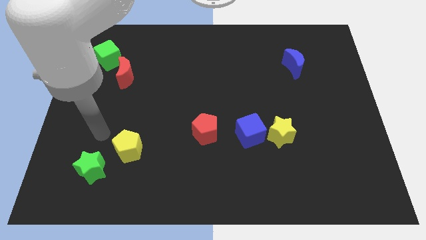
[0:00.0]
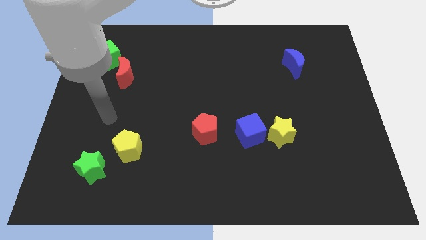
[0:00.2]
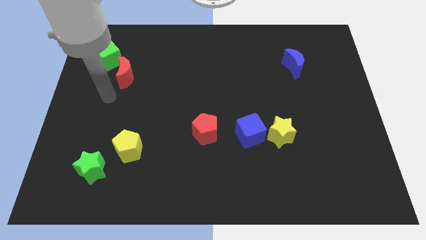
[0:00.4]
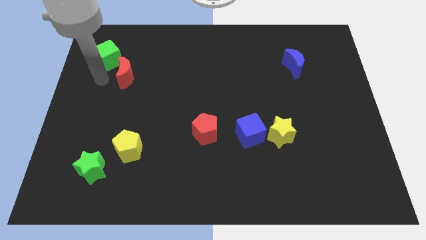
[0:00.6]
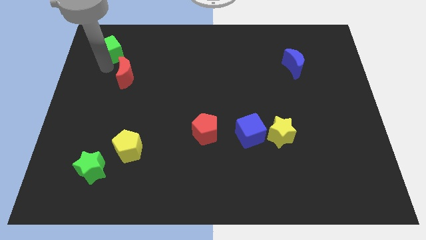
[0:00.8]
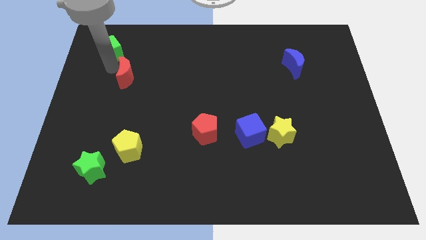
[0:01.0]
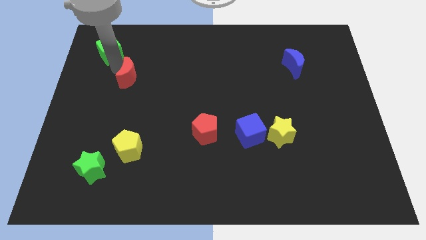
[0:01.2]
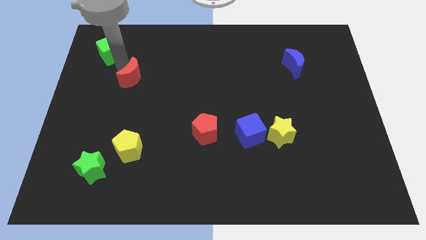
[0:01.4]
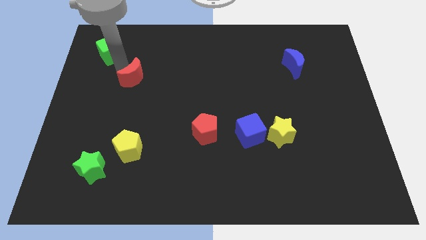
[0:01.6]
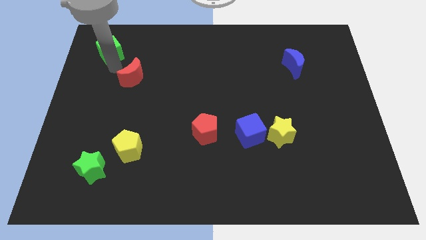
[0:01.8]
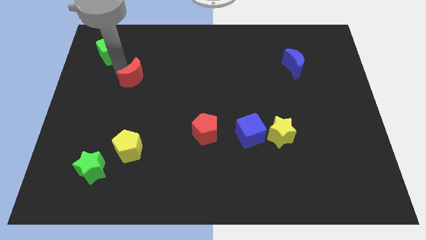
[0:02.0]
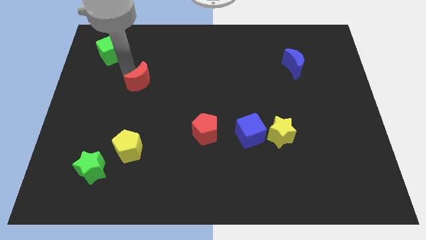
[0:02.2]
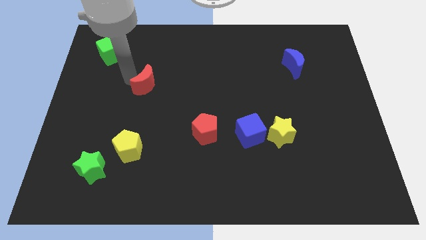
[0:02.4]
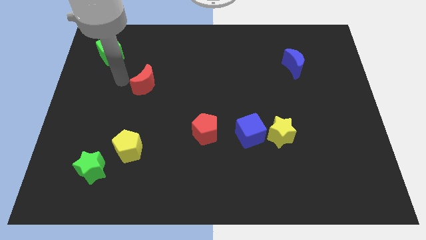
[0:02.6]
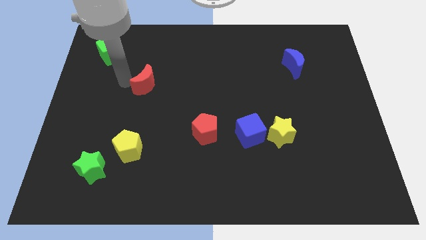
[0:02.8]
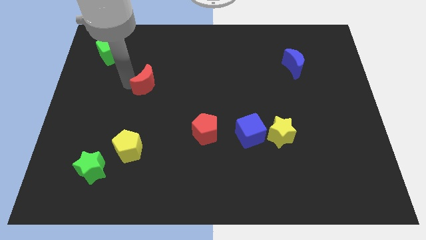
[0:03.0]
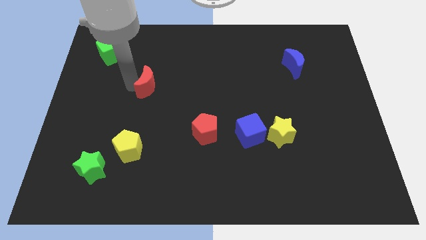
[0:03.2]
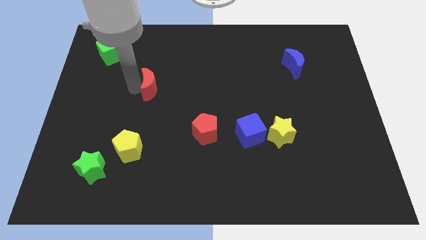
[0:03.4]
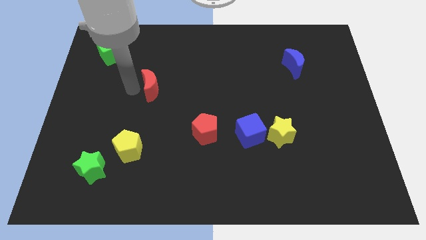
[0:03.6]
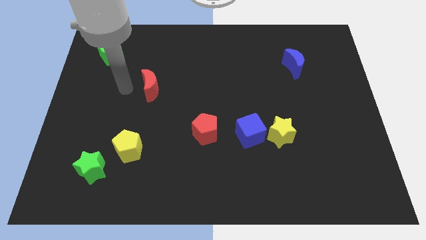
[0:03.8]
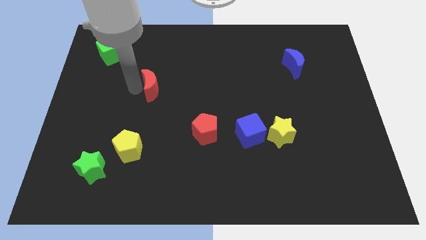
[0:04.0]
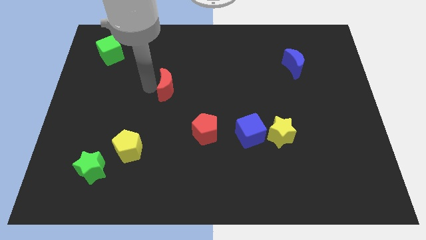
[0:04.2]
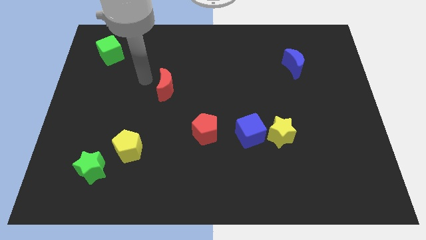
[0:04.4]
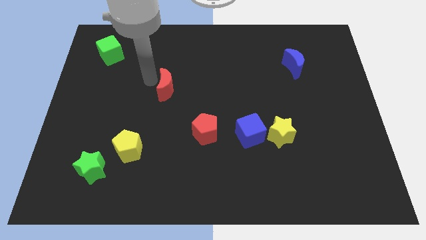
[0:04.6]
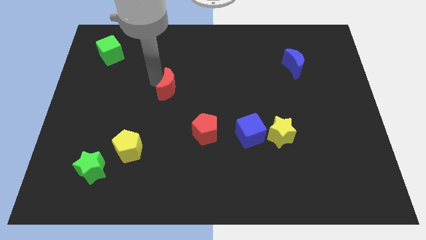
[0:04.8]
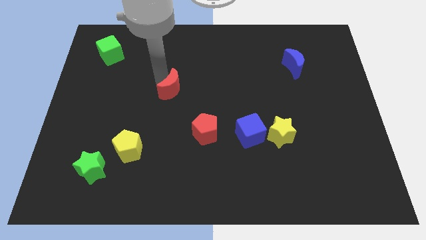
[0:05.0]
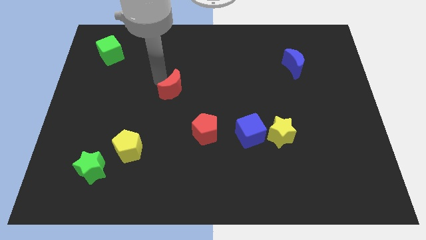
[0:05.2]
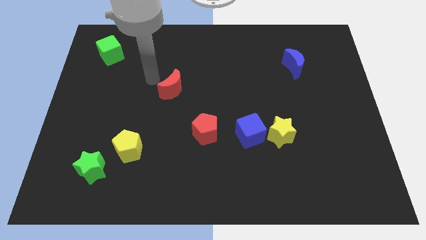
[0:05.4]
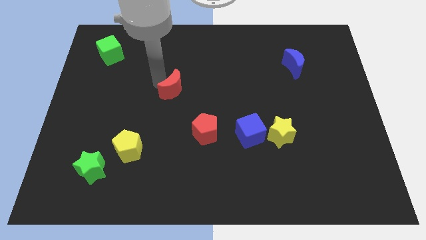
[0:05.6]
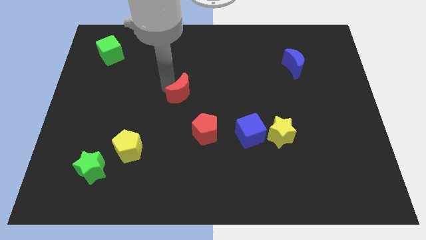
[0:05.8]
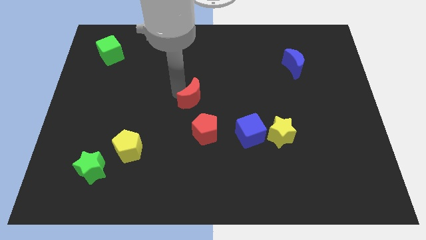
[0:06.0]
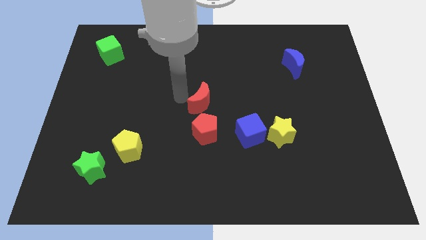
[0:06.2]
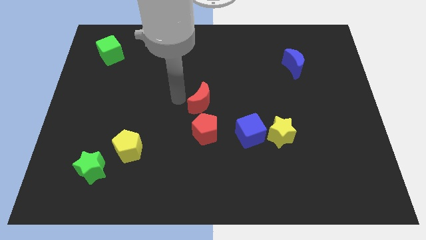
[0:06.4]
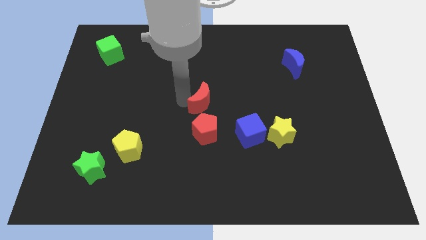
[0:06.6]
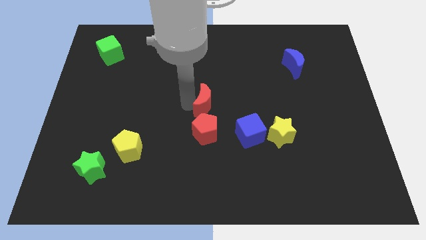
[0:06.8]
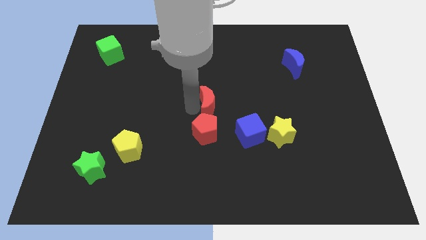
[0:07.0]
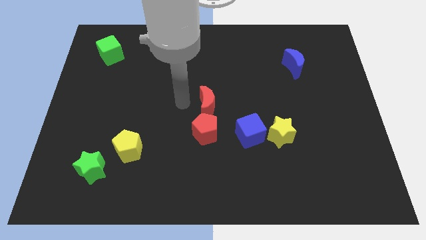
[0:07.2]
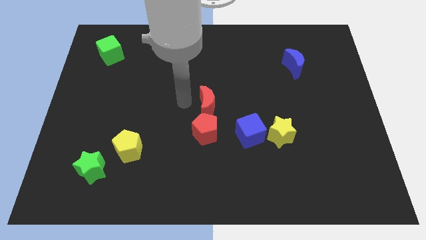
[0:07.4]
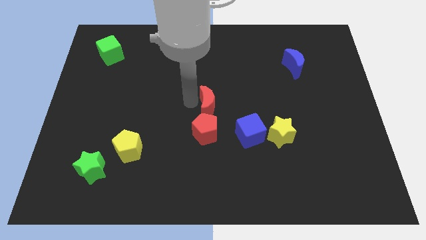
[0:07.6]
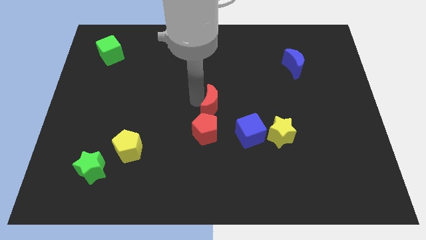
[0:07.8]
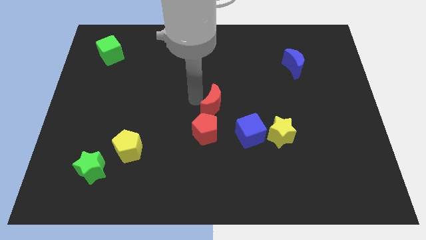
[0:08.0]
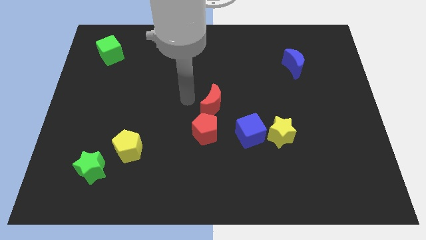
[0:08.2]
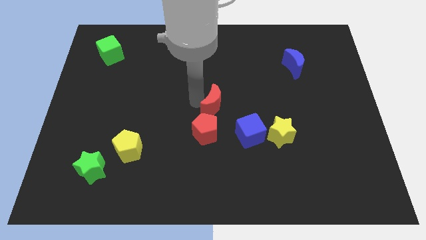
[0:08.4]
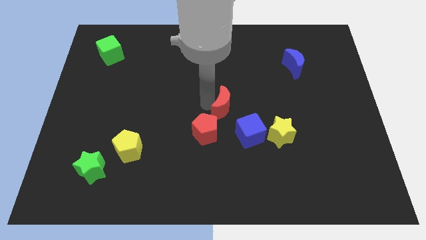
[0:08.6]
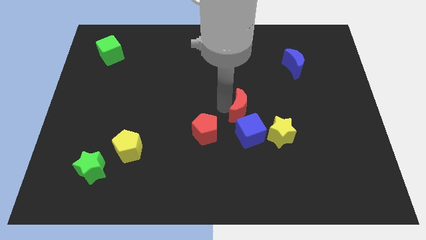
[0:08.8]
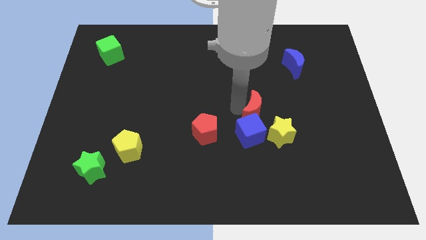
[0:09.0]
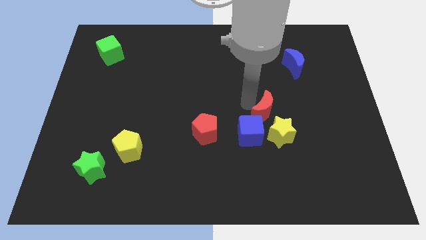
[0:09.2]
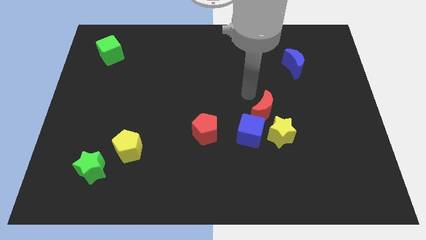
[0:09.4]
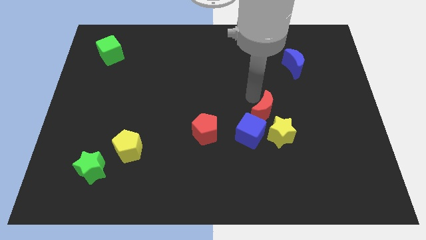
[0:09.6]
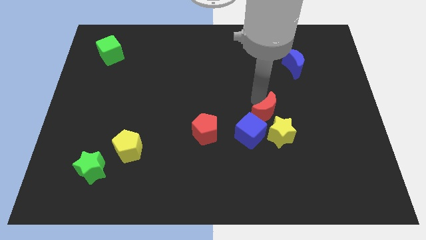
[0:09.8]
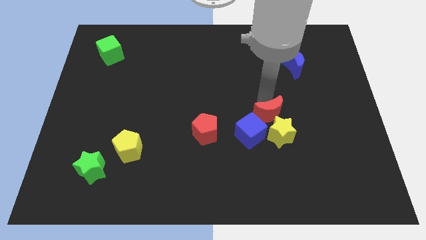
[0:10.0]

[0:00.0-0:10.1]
push the red moon close to the yellow star

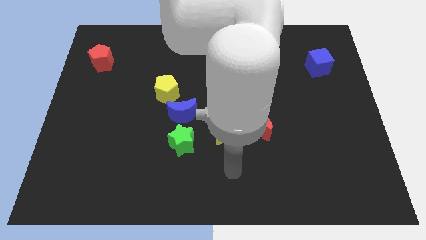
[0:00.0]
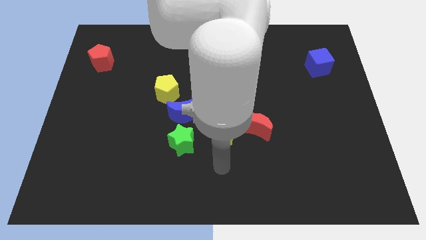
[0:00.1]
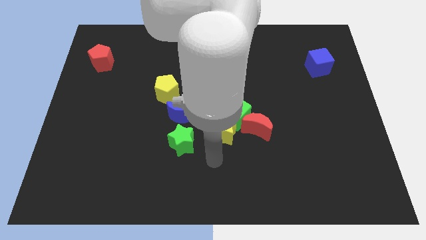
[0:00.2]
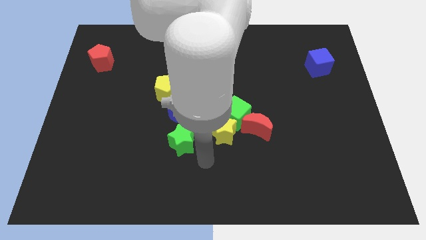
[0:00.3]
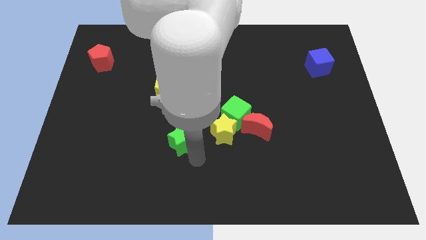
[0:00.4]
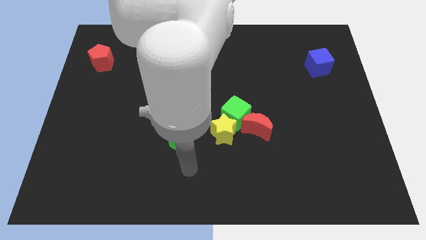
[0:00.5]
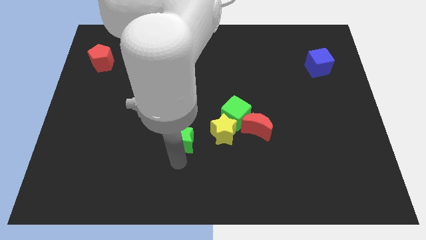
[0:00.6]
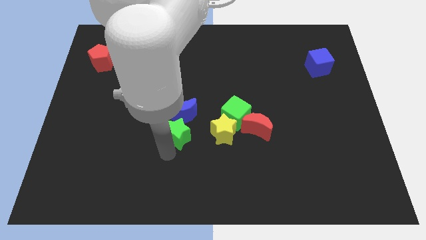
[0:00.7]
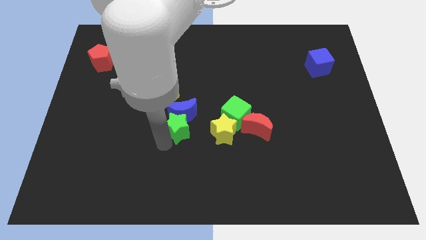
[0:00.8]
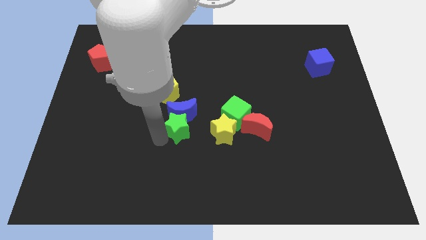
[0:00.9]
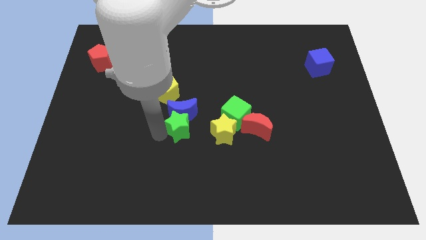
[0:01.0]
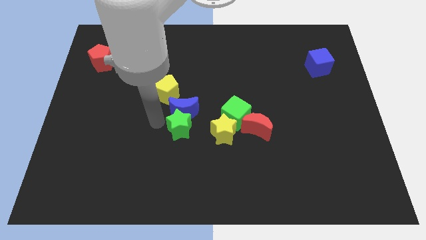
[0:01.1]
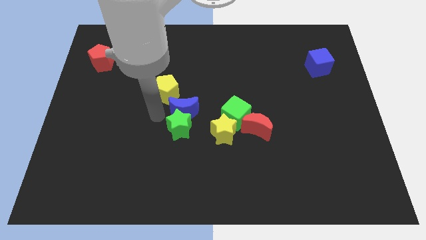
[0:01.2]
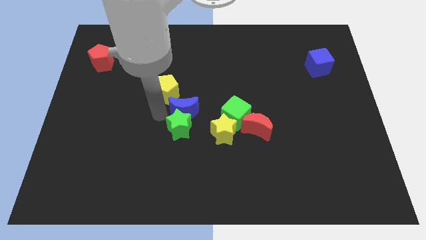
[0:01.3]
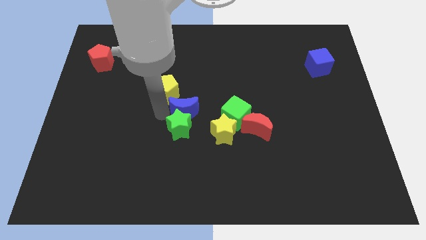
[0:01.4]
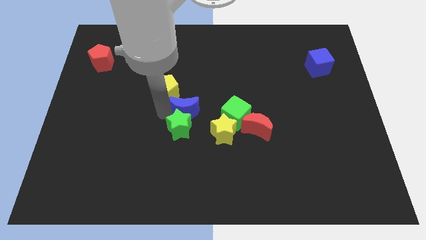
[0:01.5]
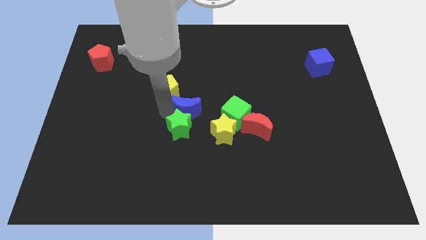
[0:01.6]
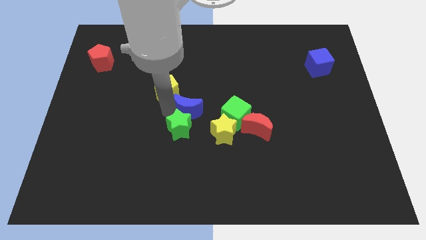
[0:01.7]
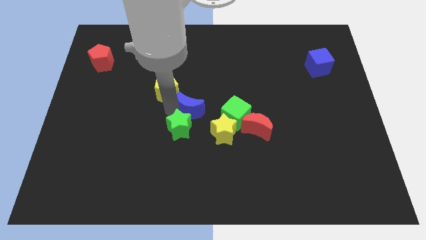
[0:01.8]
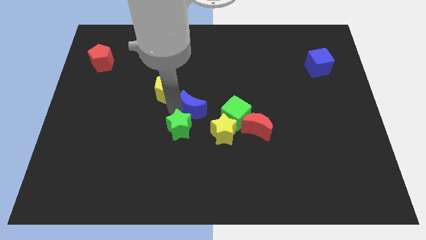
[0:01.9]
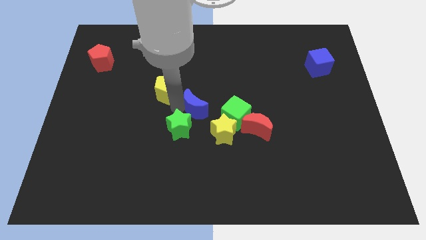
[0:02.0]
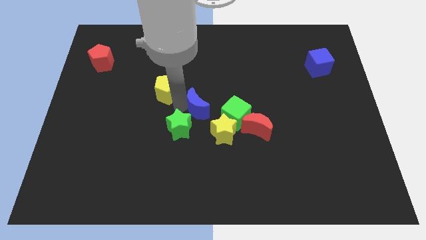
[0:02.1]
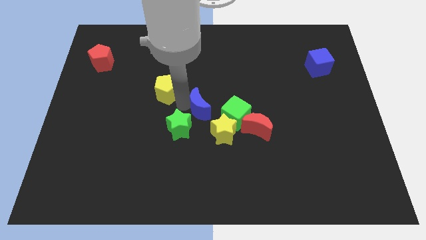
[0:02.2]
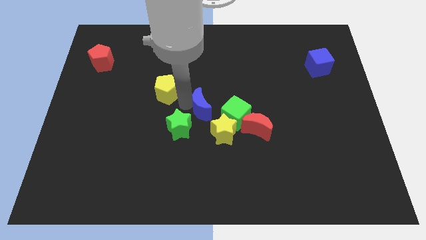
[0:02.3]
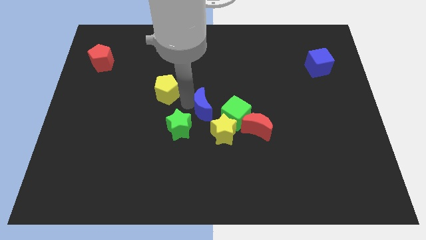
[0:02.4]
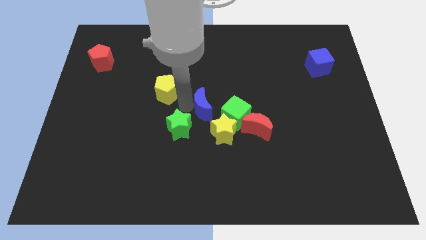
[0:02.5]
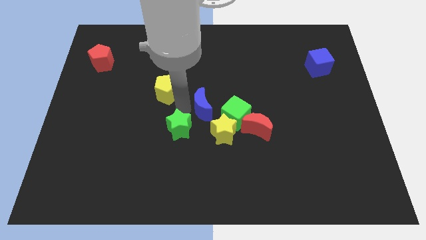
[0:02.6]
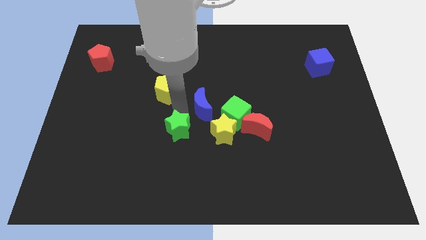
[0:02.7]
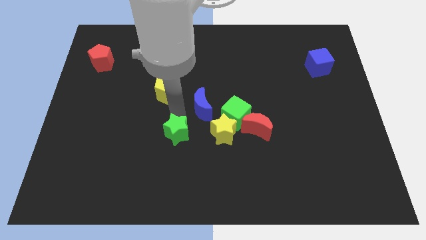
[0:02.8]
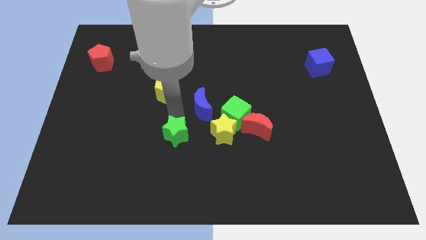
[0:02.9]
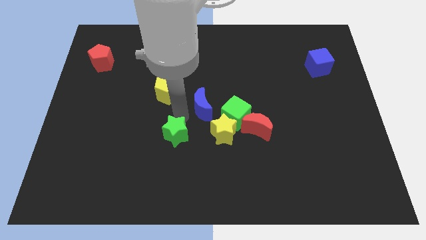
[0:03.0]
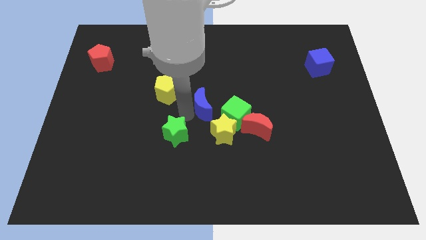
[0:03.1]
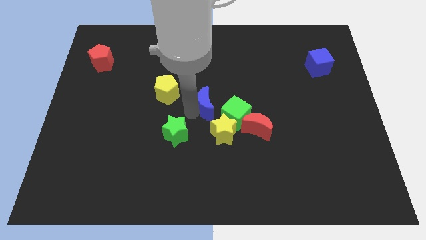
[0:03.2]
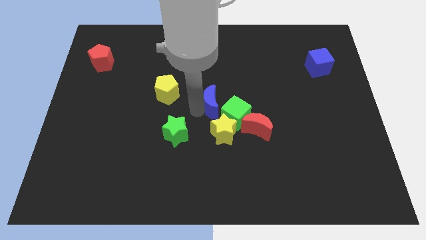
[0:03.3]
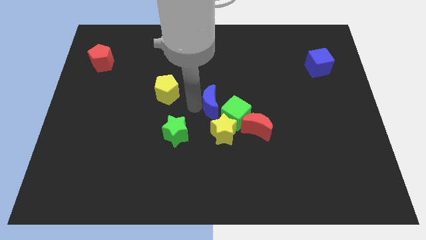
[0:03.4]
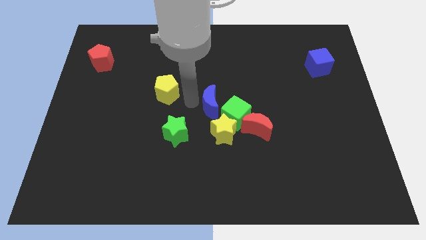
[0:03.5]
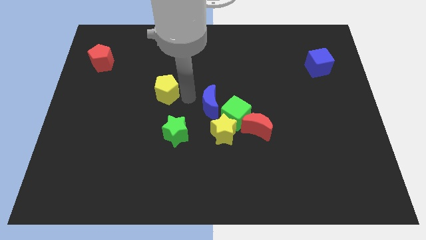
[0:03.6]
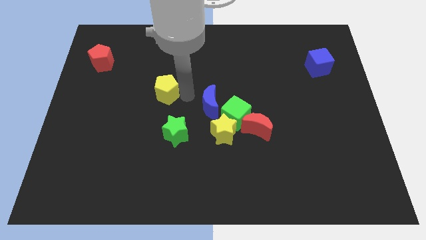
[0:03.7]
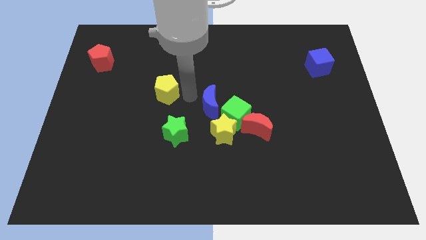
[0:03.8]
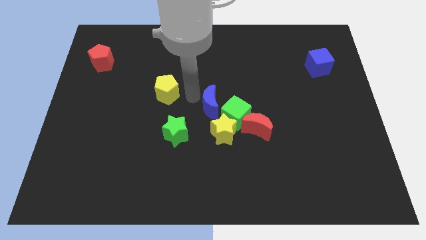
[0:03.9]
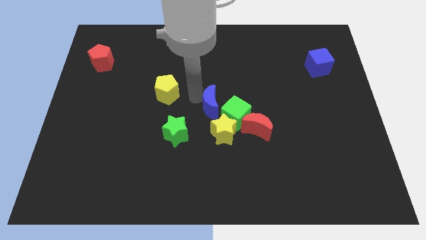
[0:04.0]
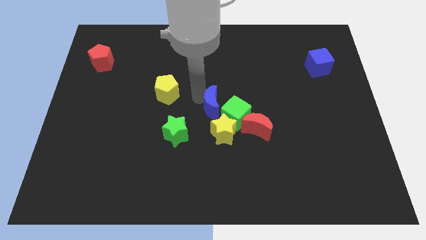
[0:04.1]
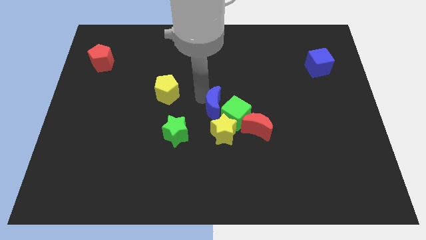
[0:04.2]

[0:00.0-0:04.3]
slide the blue moon close to the green cube
